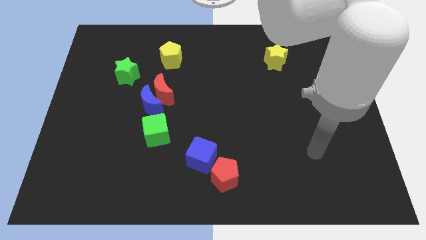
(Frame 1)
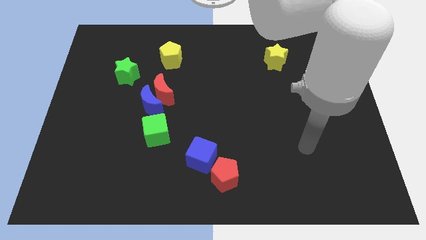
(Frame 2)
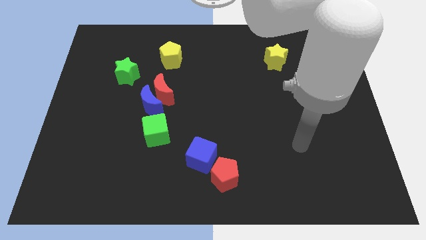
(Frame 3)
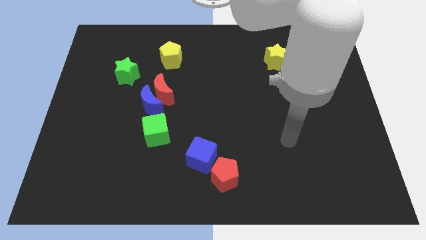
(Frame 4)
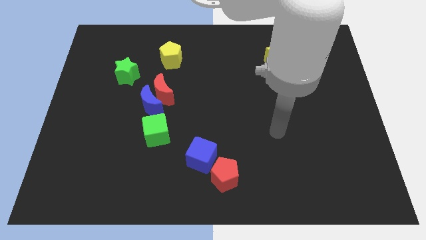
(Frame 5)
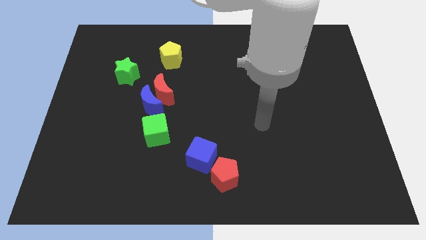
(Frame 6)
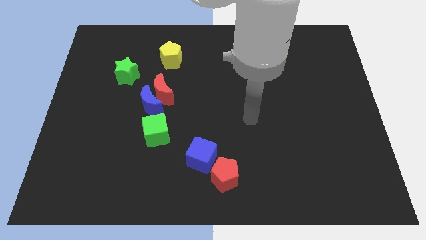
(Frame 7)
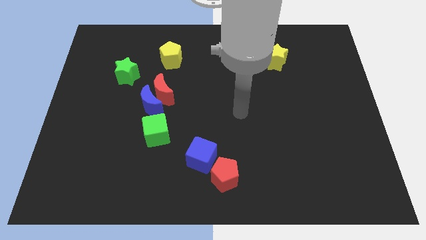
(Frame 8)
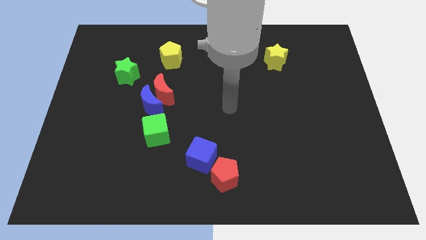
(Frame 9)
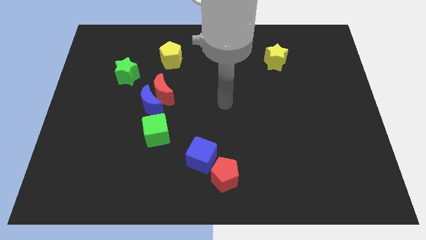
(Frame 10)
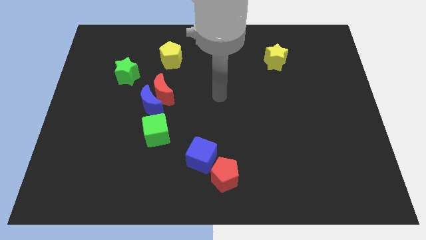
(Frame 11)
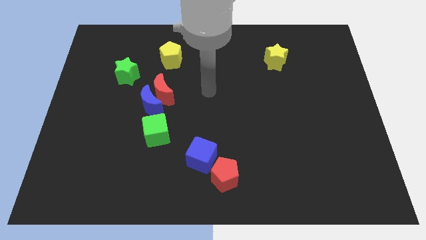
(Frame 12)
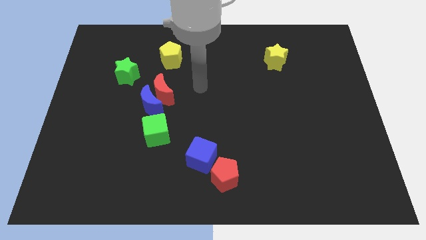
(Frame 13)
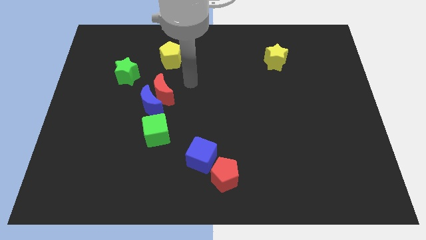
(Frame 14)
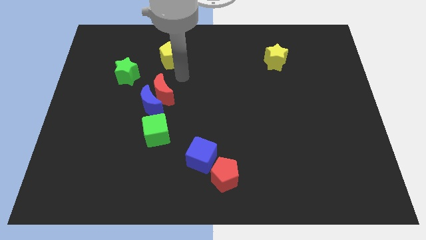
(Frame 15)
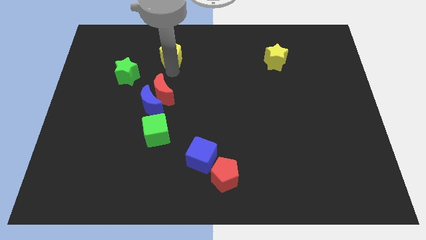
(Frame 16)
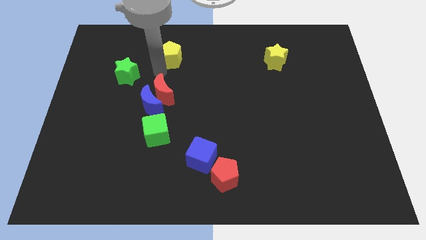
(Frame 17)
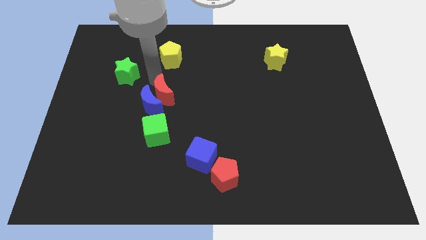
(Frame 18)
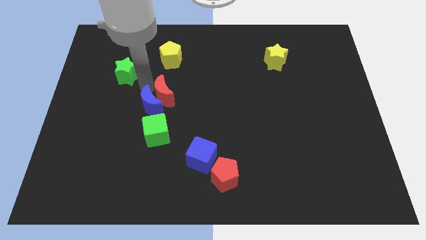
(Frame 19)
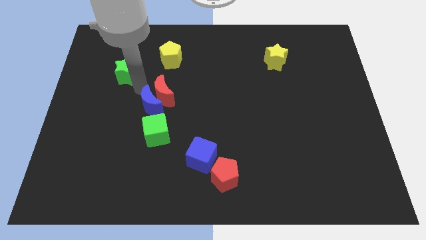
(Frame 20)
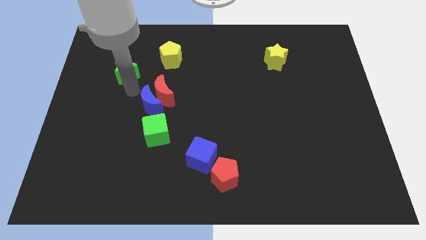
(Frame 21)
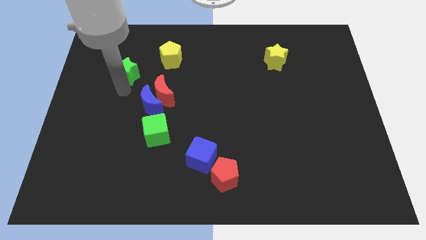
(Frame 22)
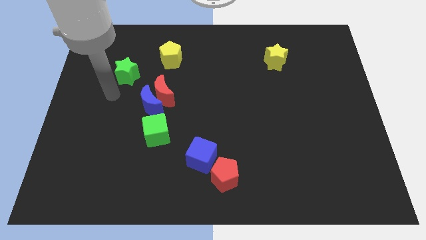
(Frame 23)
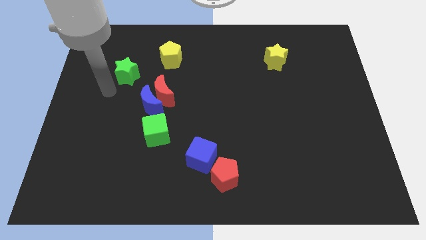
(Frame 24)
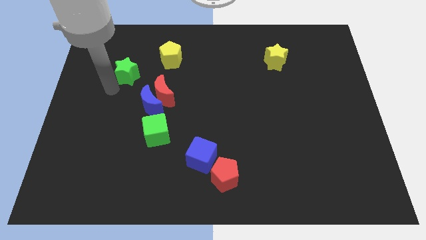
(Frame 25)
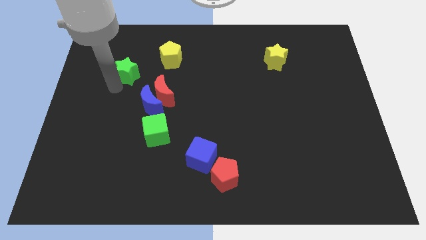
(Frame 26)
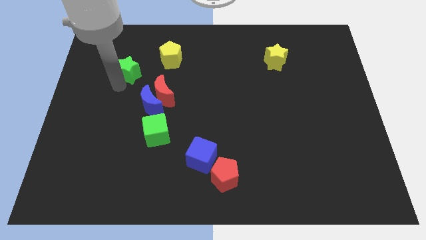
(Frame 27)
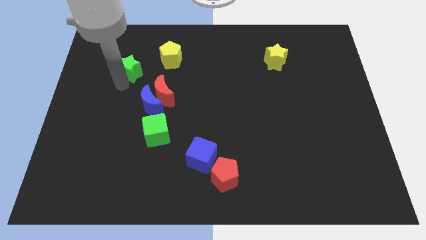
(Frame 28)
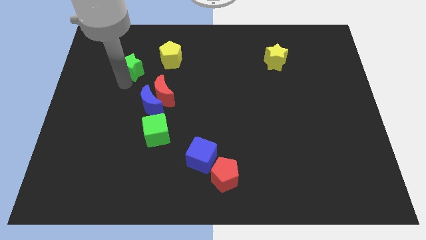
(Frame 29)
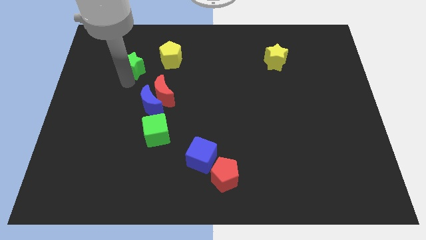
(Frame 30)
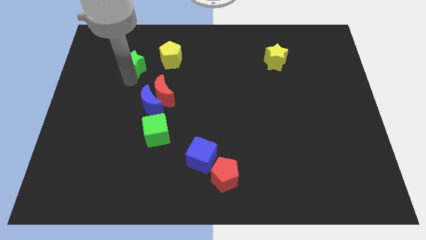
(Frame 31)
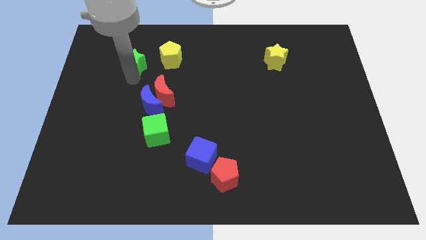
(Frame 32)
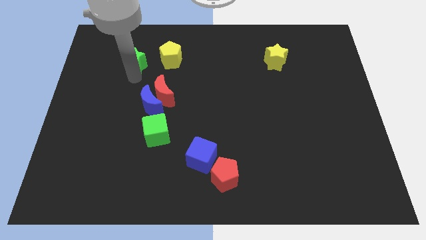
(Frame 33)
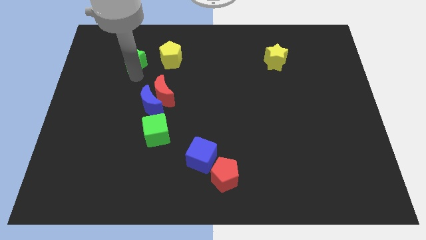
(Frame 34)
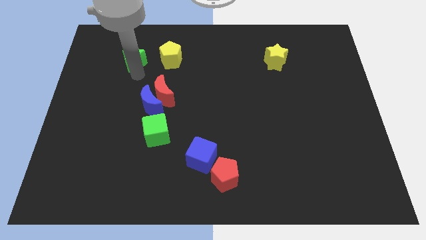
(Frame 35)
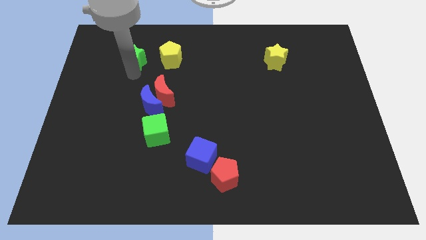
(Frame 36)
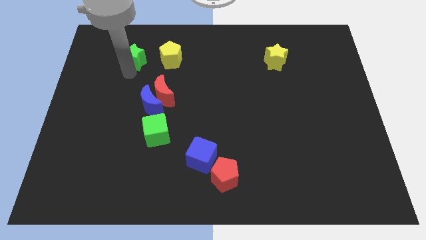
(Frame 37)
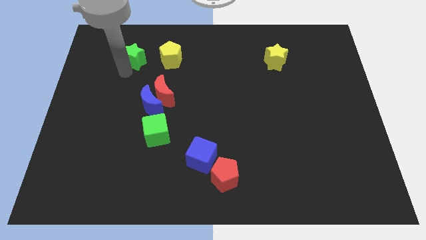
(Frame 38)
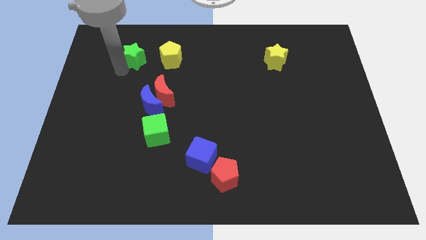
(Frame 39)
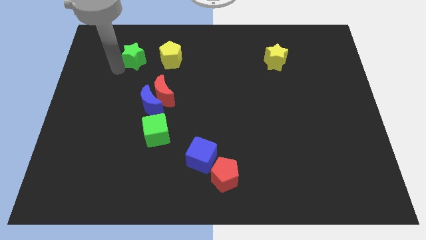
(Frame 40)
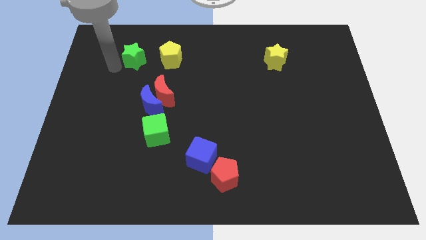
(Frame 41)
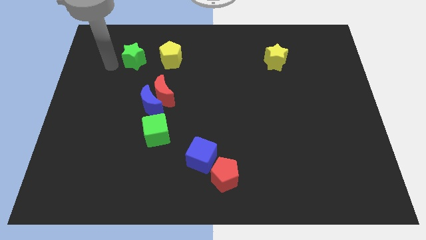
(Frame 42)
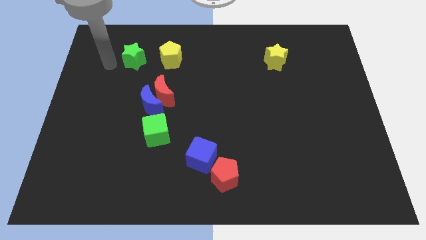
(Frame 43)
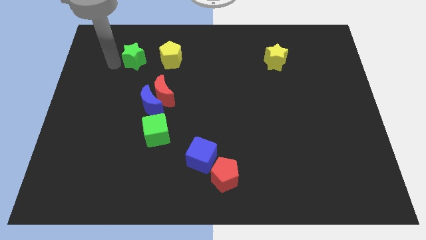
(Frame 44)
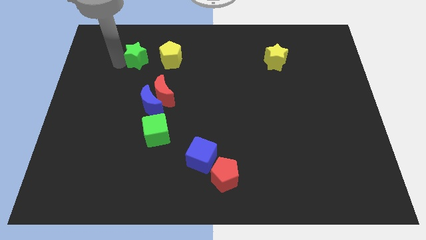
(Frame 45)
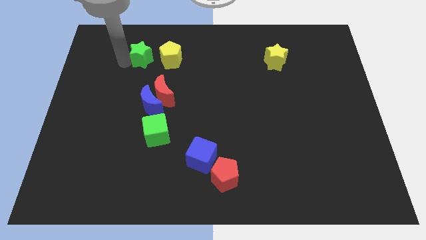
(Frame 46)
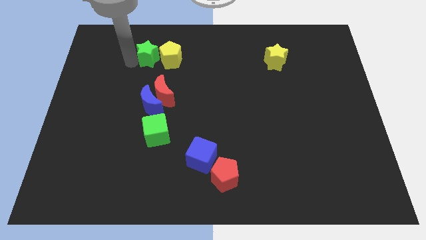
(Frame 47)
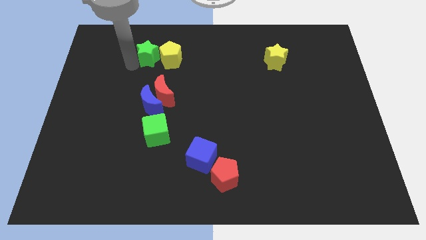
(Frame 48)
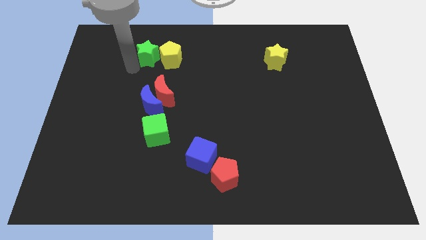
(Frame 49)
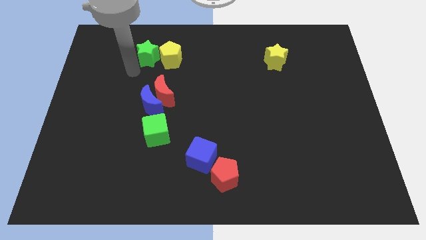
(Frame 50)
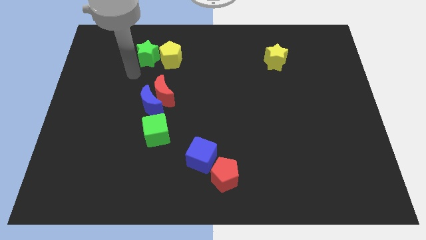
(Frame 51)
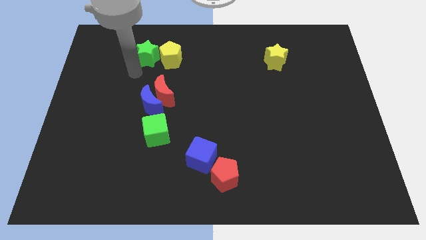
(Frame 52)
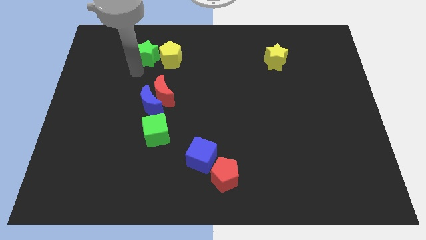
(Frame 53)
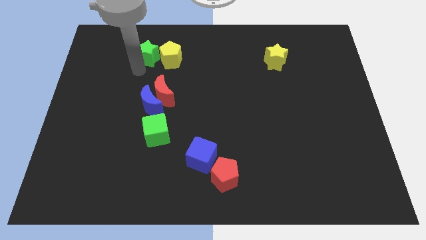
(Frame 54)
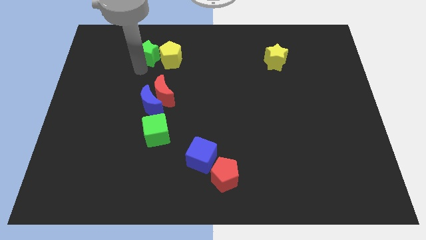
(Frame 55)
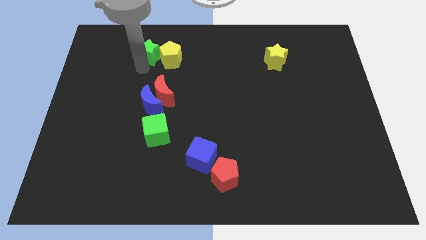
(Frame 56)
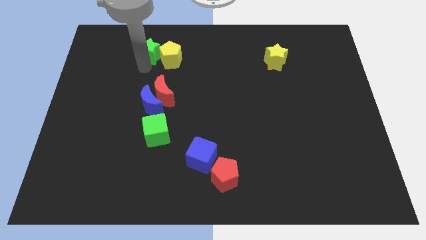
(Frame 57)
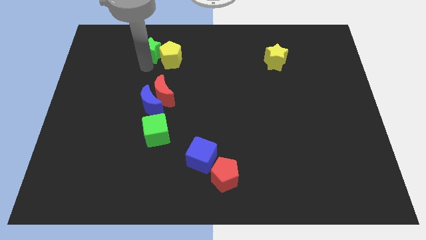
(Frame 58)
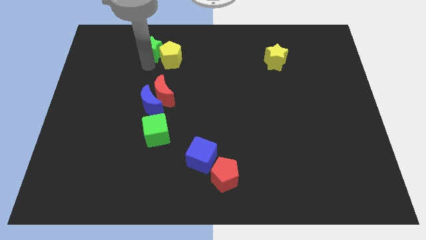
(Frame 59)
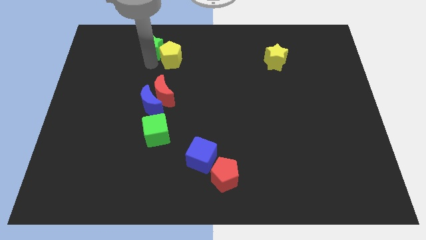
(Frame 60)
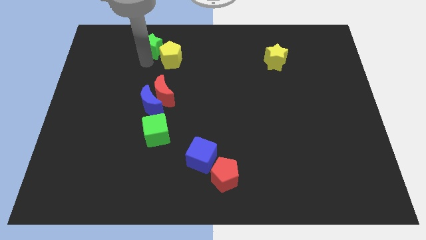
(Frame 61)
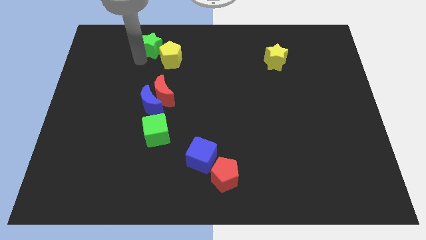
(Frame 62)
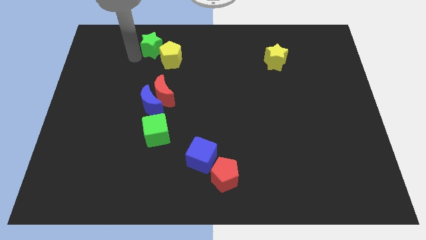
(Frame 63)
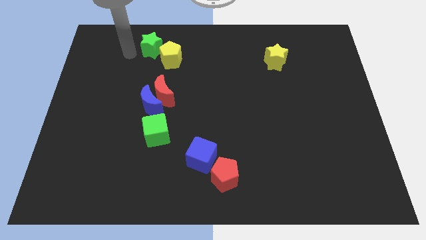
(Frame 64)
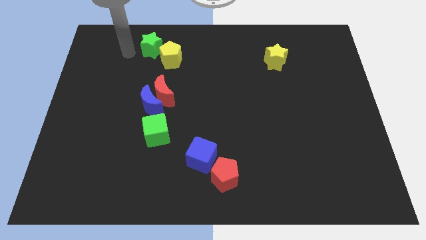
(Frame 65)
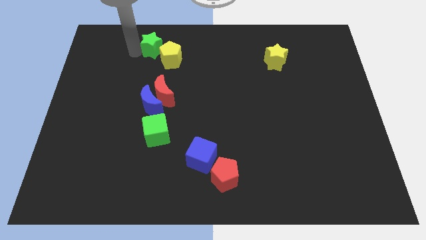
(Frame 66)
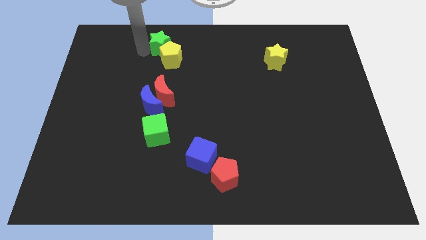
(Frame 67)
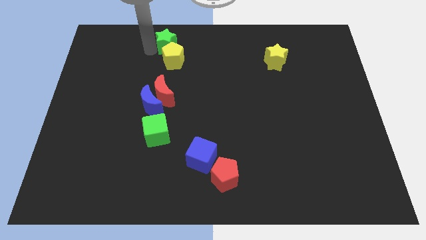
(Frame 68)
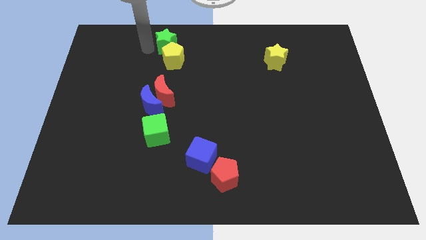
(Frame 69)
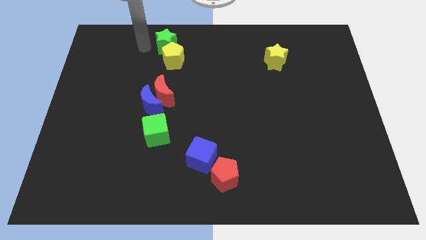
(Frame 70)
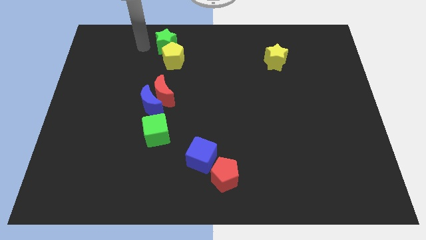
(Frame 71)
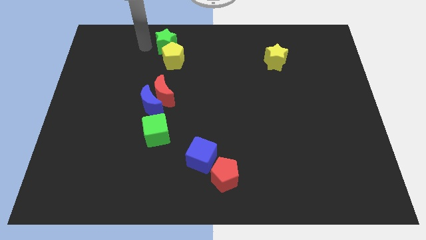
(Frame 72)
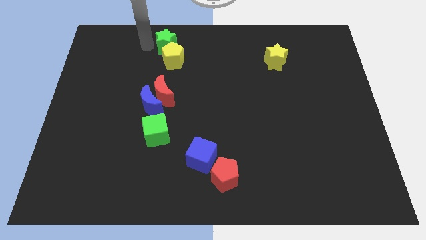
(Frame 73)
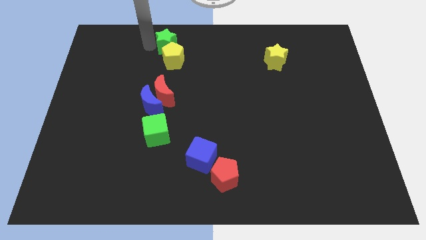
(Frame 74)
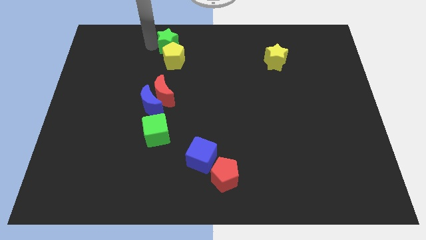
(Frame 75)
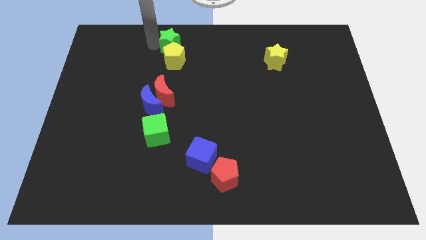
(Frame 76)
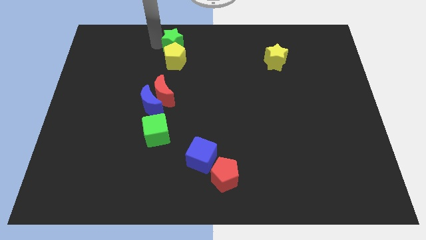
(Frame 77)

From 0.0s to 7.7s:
put the green star to the towards your base
